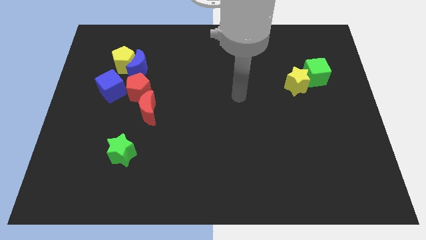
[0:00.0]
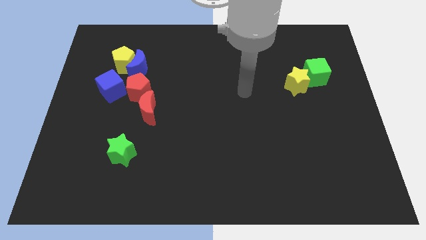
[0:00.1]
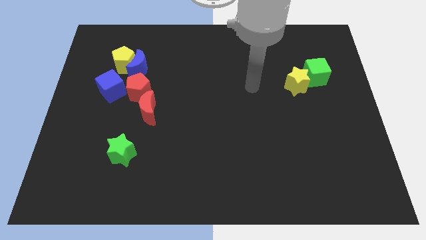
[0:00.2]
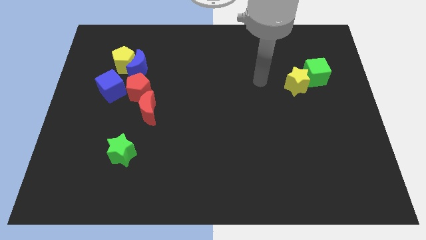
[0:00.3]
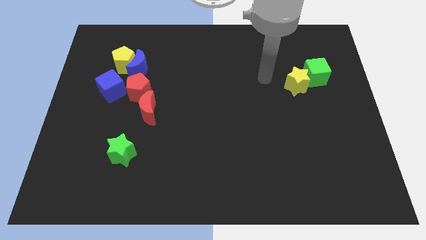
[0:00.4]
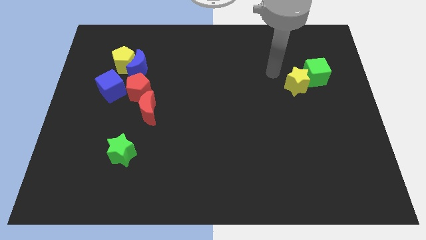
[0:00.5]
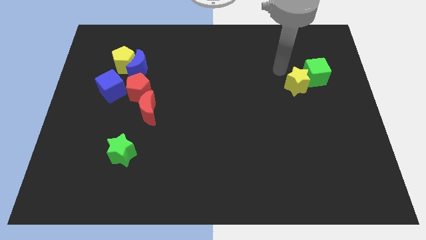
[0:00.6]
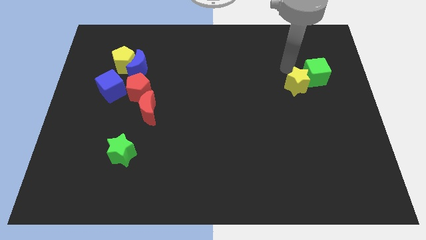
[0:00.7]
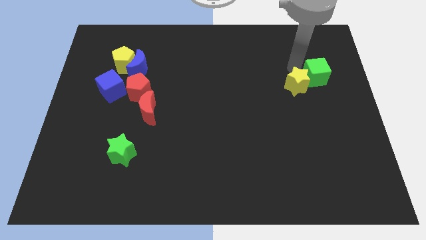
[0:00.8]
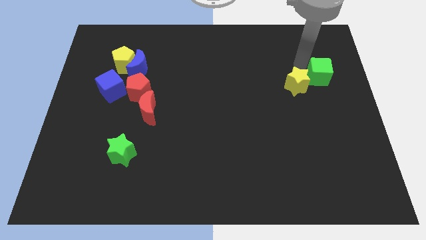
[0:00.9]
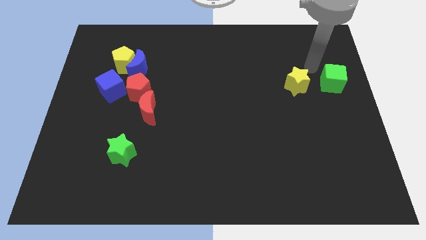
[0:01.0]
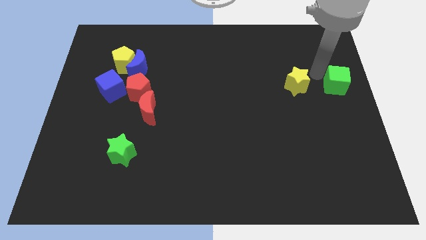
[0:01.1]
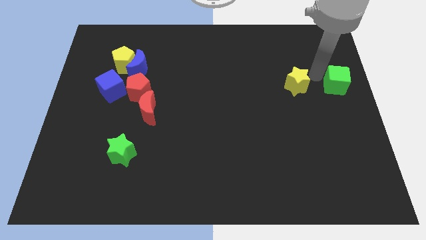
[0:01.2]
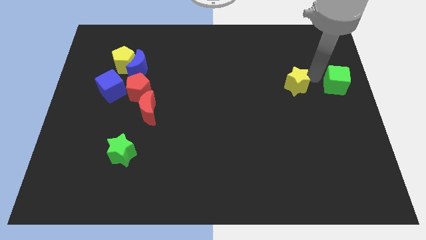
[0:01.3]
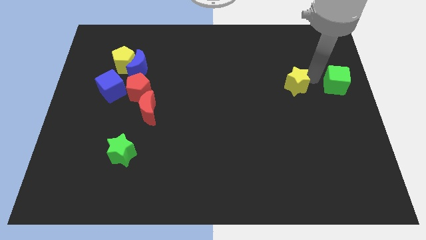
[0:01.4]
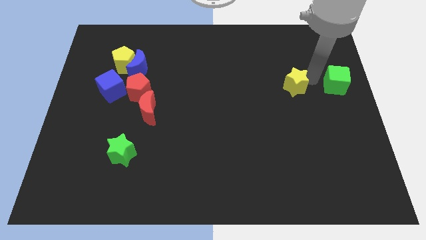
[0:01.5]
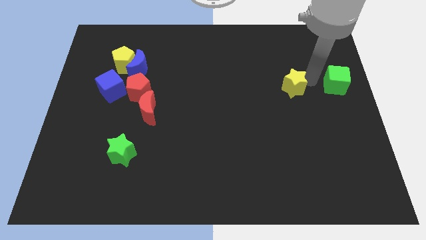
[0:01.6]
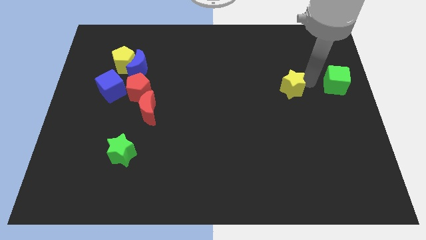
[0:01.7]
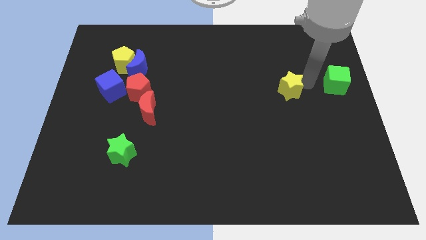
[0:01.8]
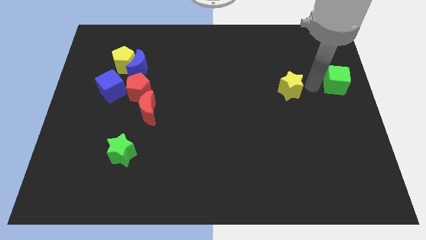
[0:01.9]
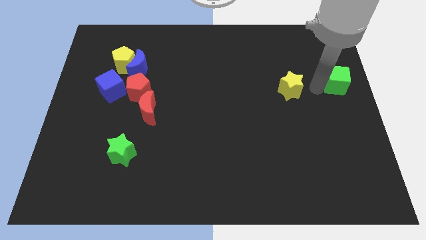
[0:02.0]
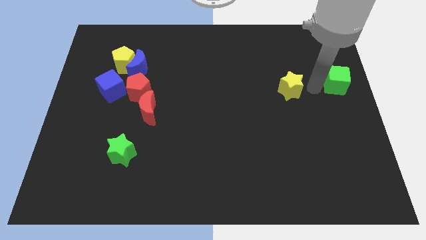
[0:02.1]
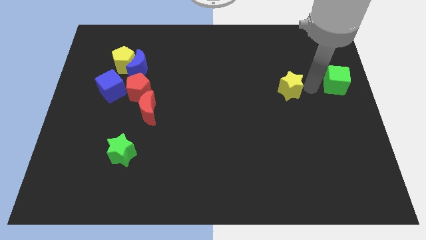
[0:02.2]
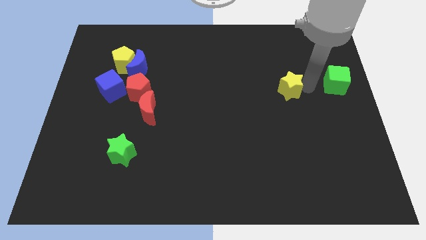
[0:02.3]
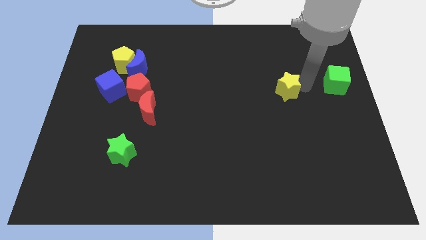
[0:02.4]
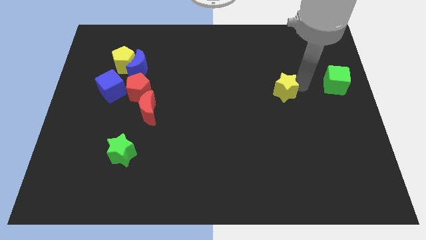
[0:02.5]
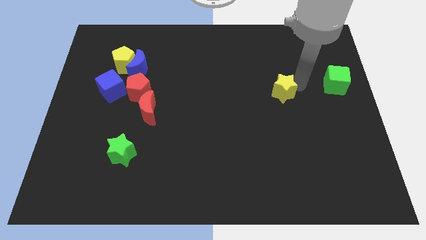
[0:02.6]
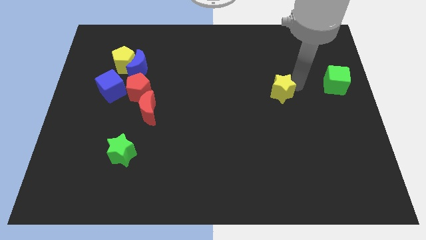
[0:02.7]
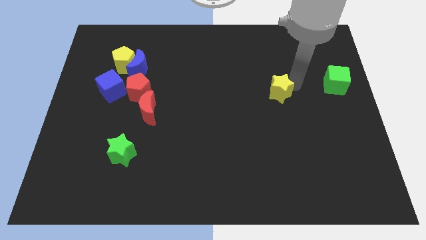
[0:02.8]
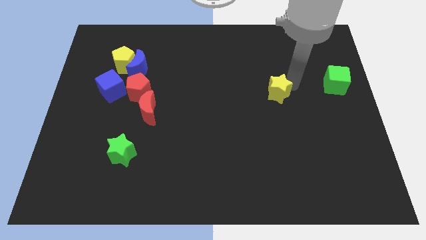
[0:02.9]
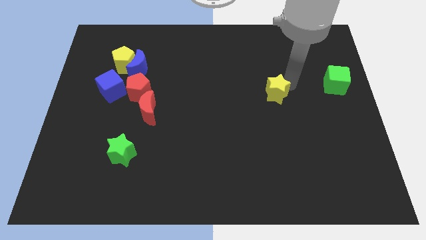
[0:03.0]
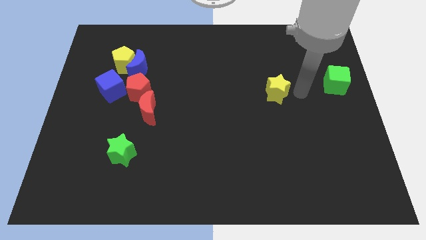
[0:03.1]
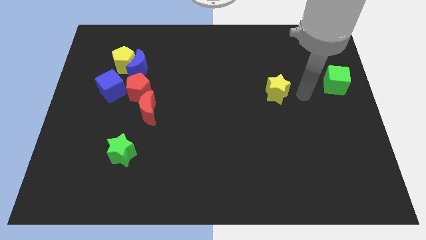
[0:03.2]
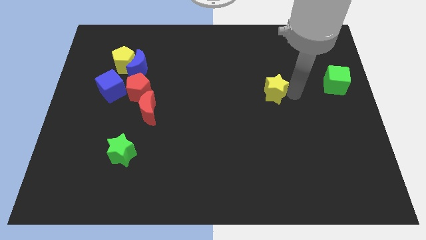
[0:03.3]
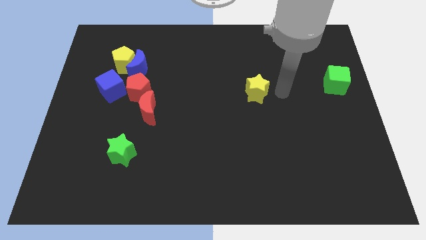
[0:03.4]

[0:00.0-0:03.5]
push the yellow star slightly left

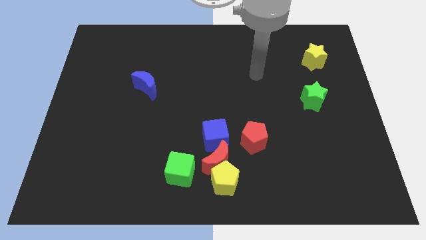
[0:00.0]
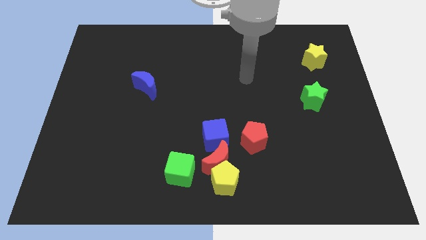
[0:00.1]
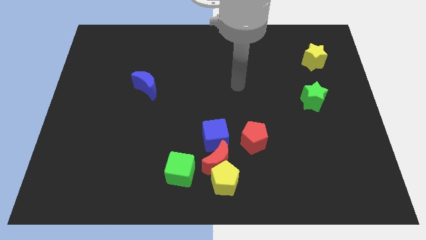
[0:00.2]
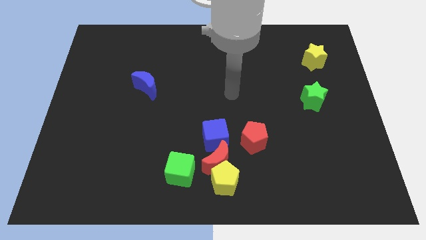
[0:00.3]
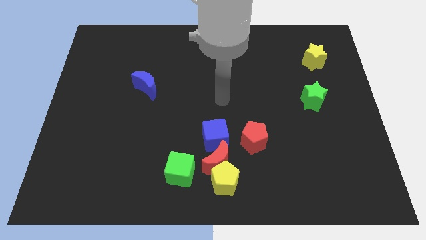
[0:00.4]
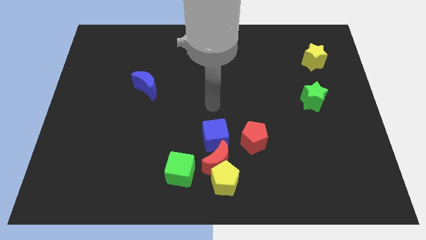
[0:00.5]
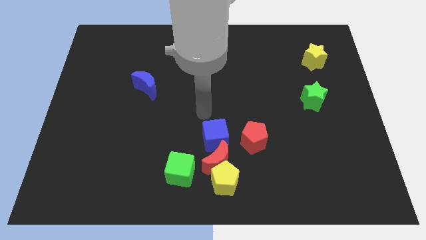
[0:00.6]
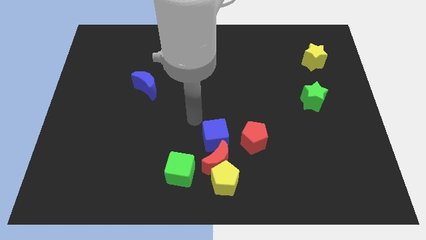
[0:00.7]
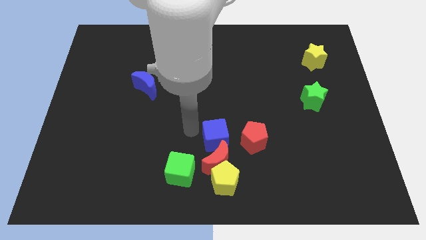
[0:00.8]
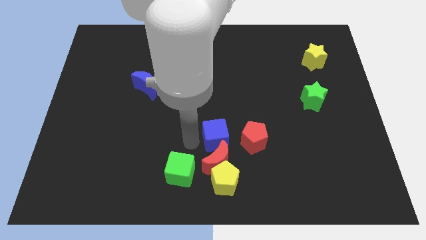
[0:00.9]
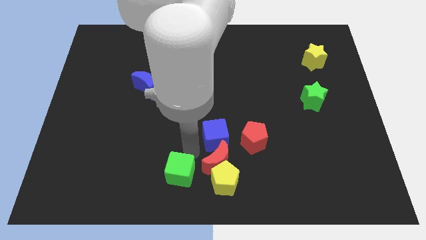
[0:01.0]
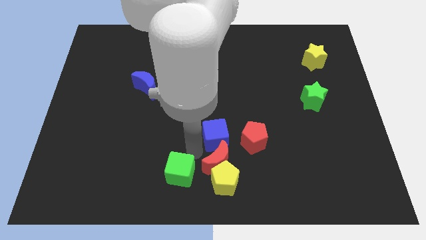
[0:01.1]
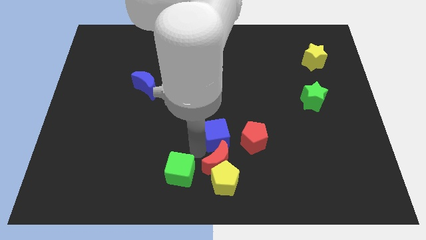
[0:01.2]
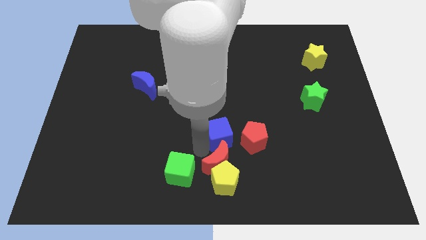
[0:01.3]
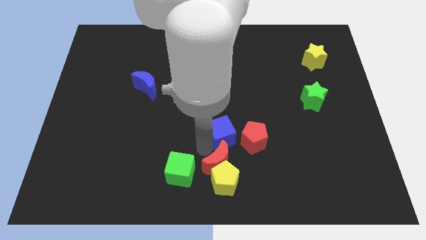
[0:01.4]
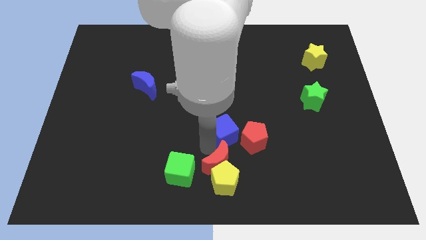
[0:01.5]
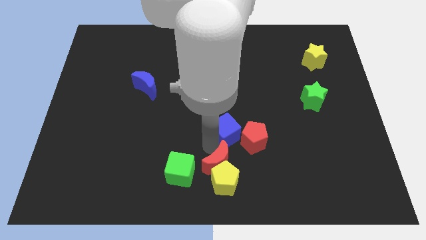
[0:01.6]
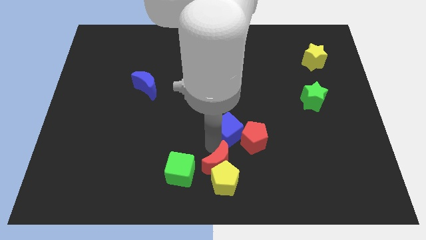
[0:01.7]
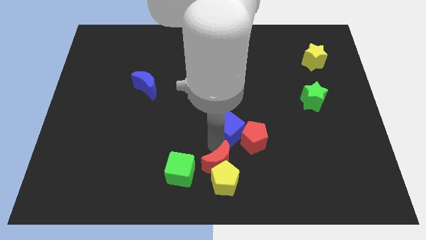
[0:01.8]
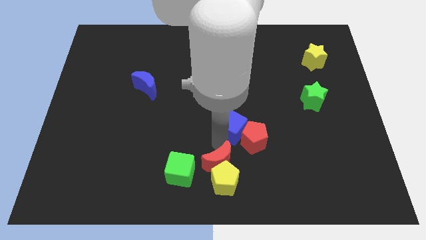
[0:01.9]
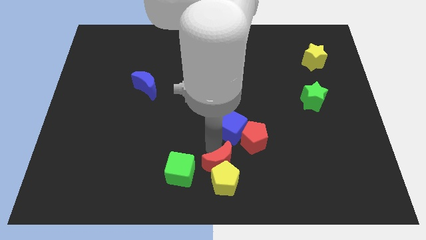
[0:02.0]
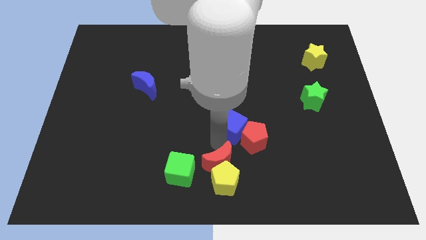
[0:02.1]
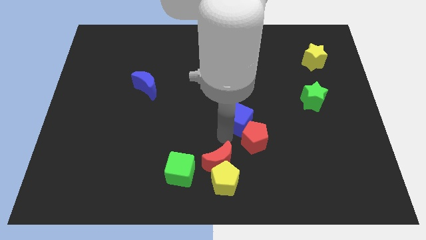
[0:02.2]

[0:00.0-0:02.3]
slightly move the blue cube diagonally upwards and to the right

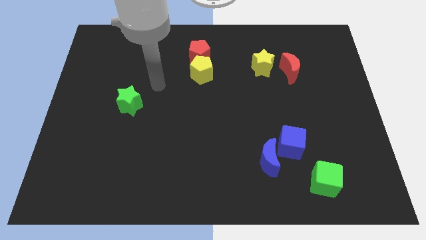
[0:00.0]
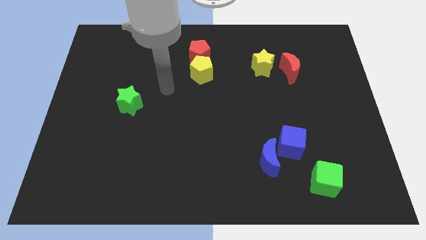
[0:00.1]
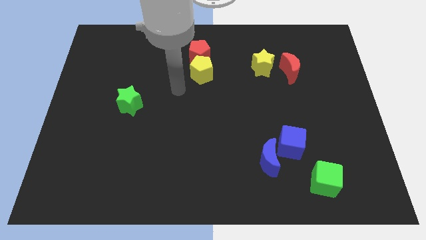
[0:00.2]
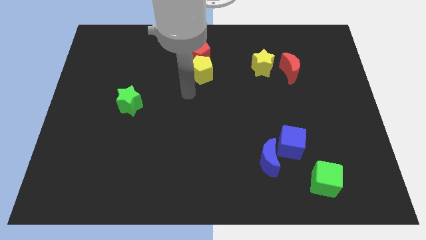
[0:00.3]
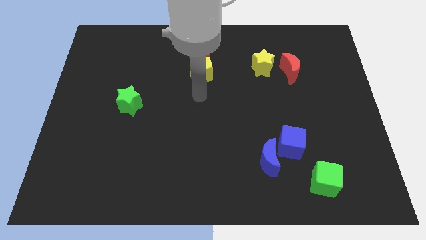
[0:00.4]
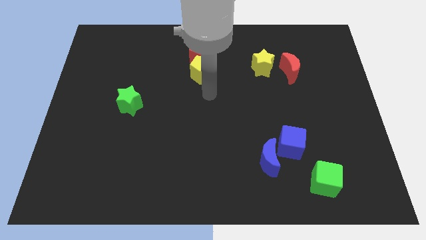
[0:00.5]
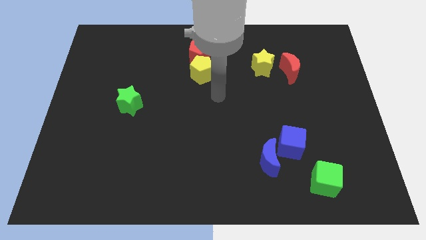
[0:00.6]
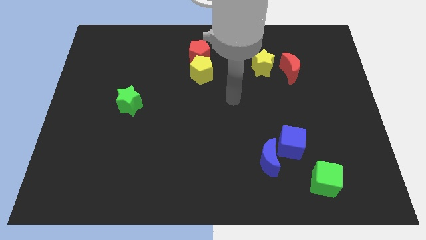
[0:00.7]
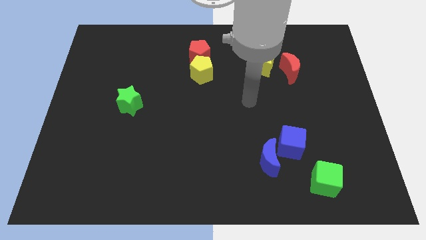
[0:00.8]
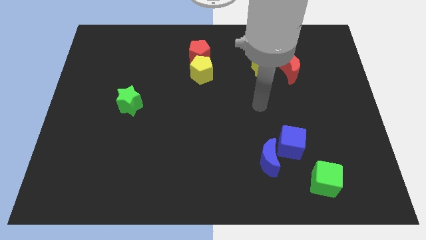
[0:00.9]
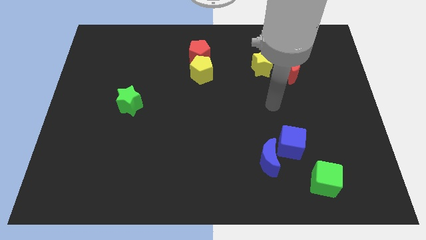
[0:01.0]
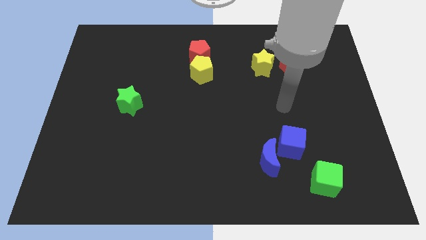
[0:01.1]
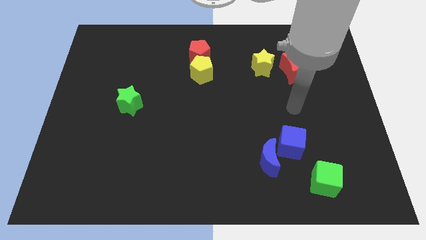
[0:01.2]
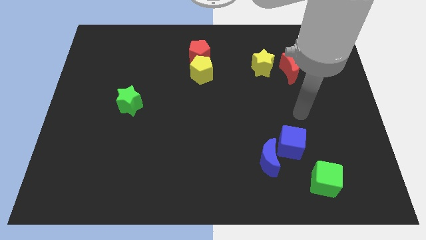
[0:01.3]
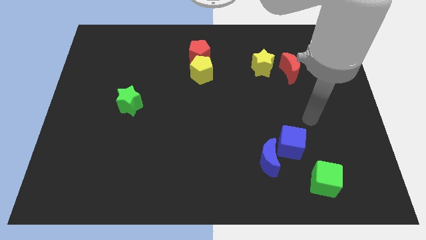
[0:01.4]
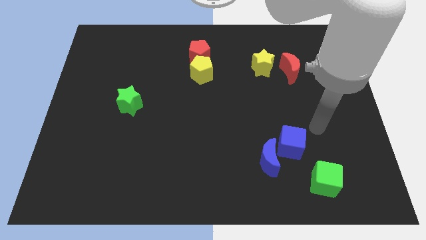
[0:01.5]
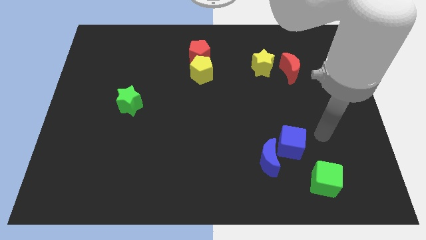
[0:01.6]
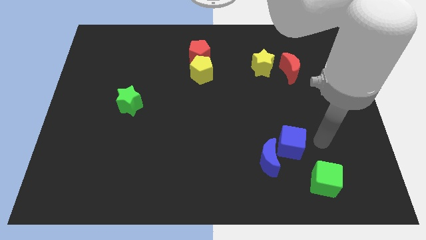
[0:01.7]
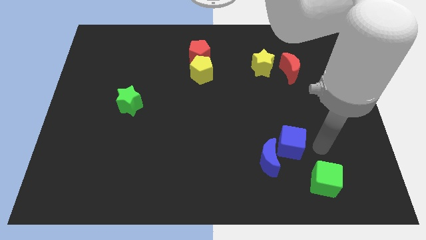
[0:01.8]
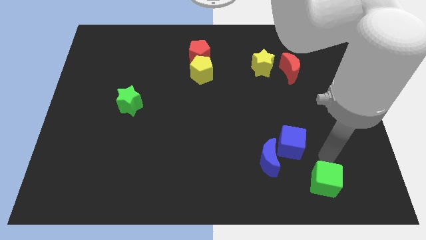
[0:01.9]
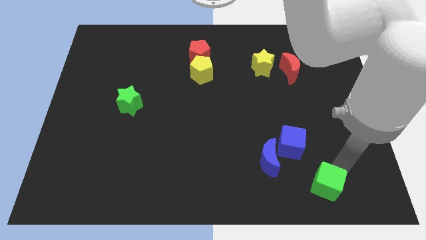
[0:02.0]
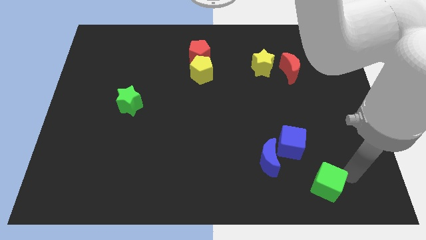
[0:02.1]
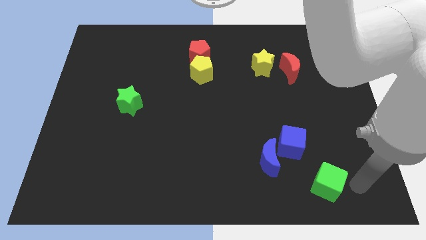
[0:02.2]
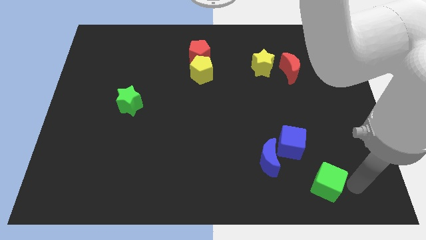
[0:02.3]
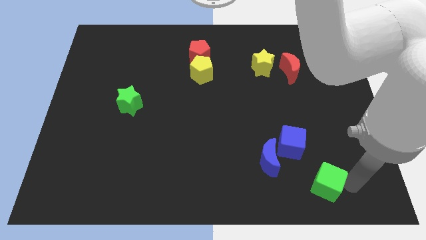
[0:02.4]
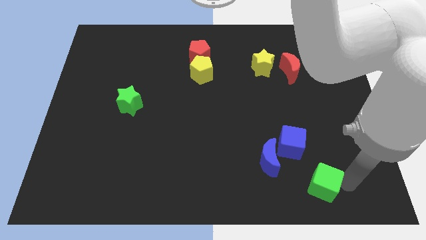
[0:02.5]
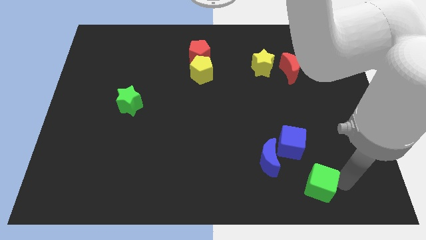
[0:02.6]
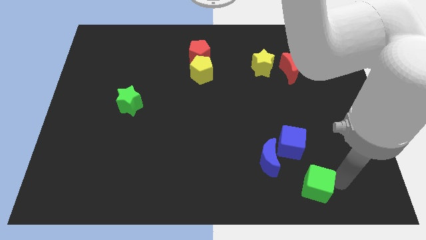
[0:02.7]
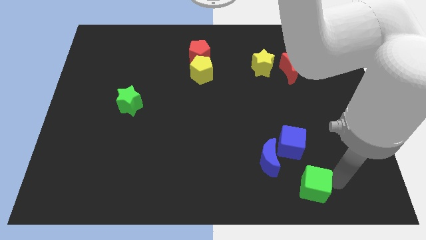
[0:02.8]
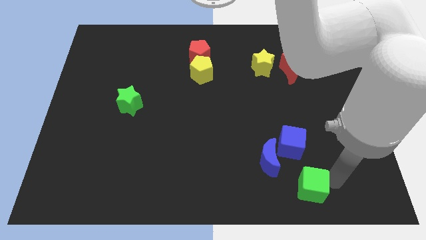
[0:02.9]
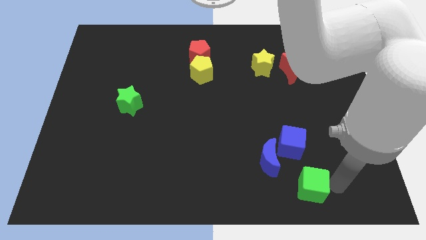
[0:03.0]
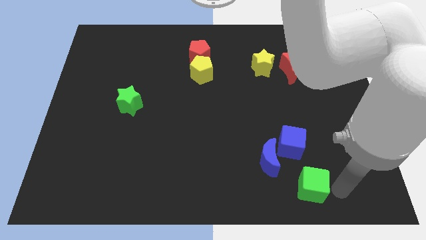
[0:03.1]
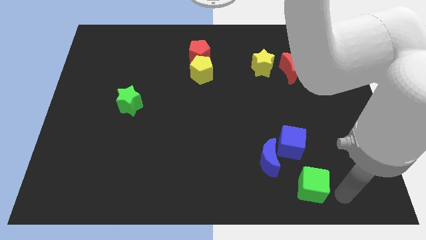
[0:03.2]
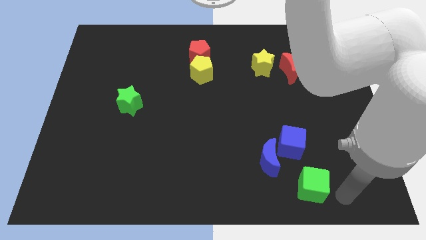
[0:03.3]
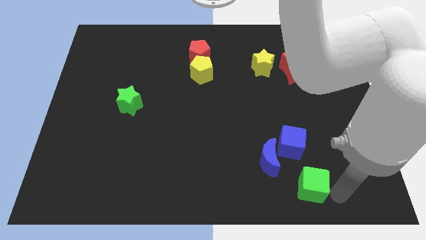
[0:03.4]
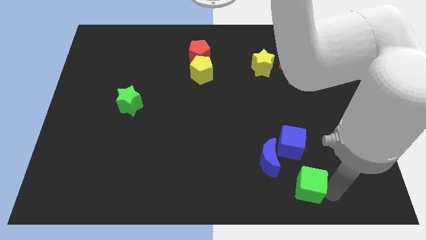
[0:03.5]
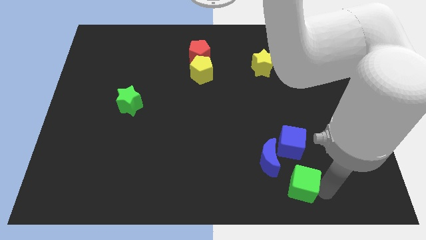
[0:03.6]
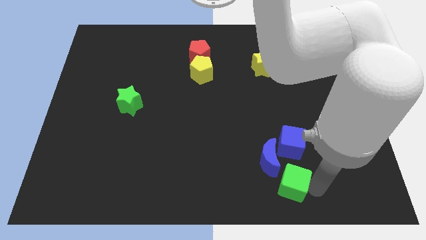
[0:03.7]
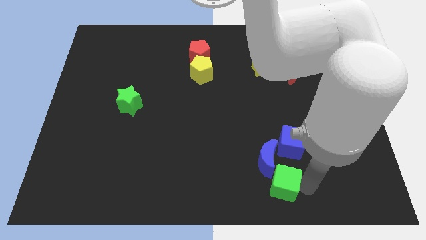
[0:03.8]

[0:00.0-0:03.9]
slide the green cube left a little bit
